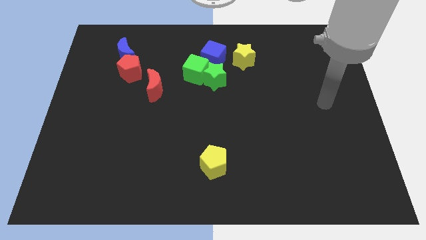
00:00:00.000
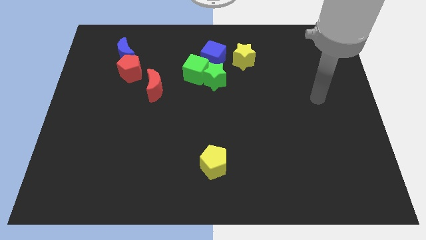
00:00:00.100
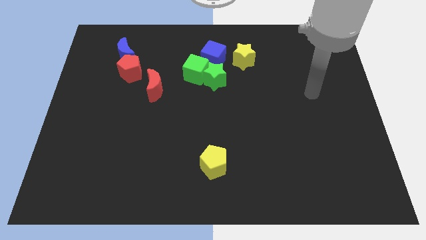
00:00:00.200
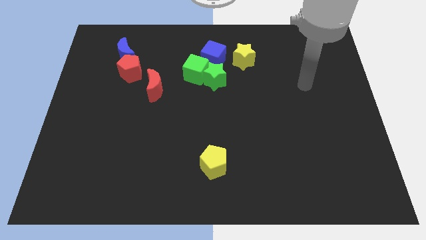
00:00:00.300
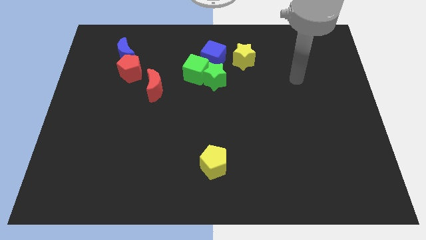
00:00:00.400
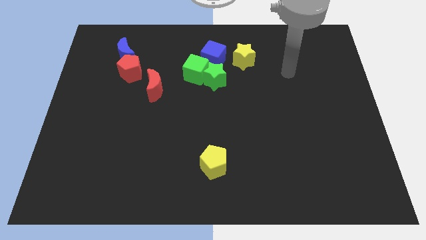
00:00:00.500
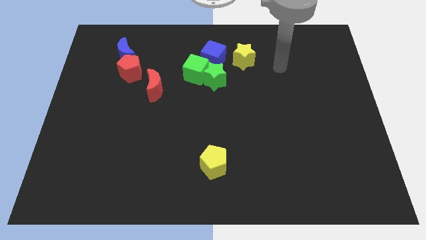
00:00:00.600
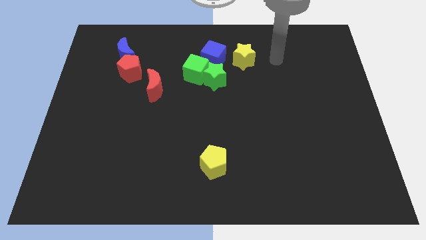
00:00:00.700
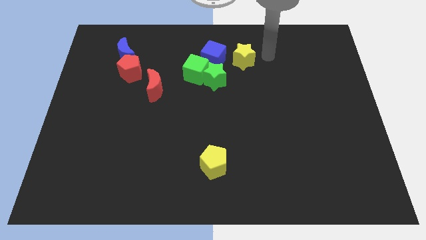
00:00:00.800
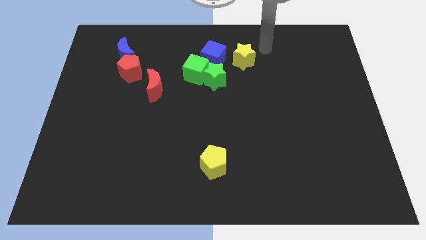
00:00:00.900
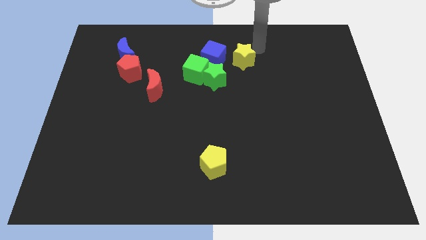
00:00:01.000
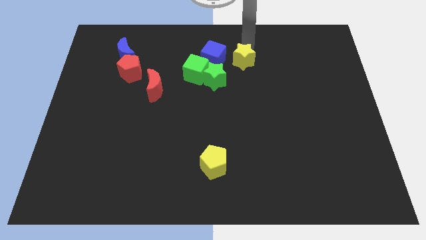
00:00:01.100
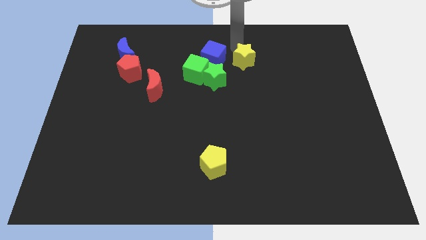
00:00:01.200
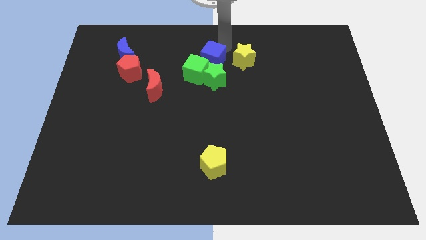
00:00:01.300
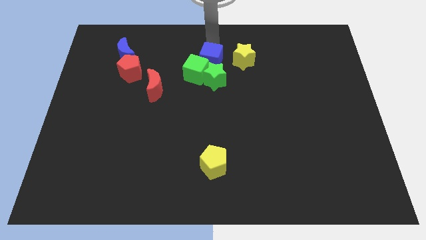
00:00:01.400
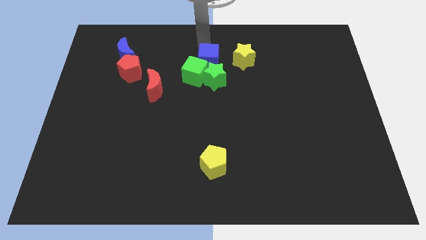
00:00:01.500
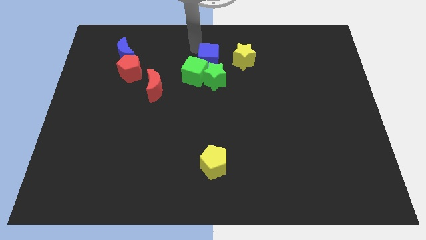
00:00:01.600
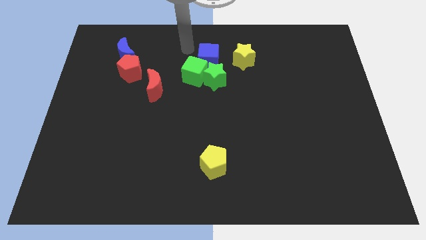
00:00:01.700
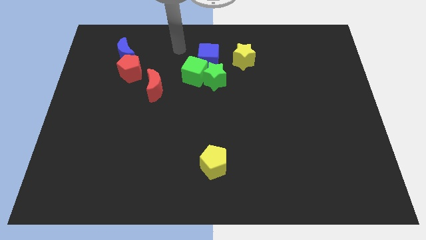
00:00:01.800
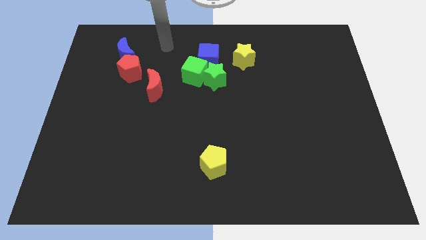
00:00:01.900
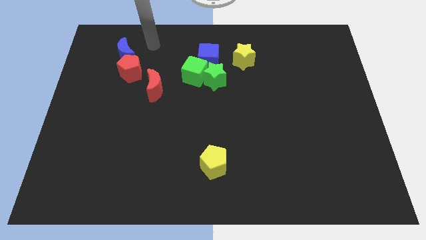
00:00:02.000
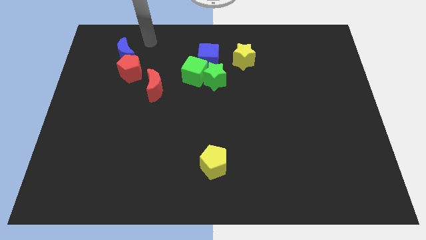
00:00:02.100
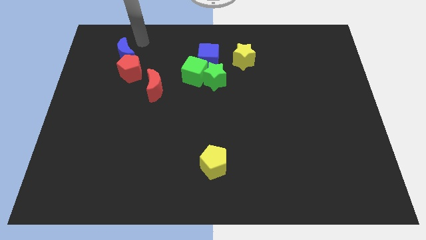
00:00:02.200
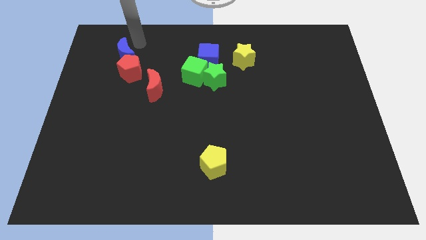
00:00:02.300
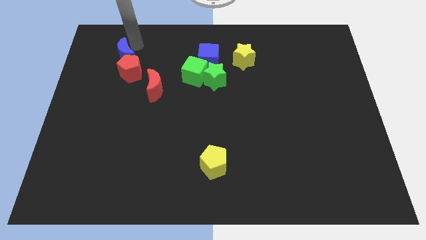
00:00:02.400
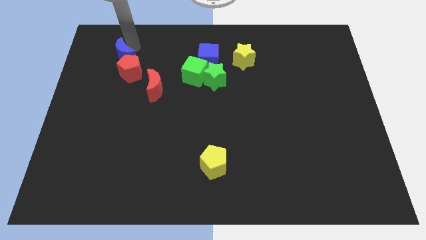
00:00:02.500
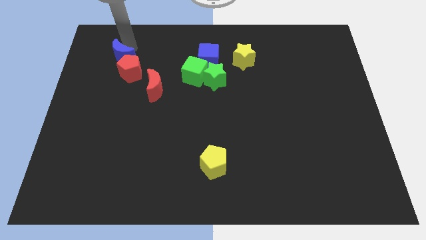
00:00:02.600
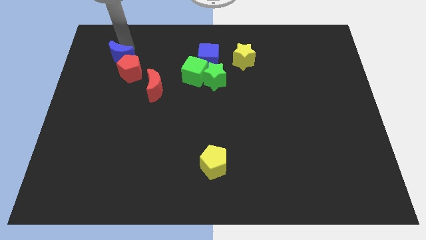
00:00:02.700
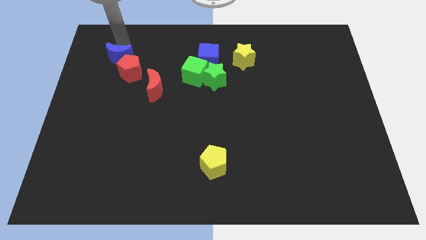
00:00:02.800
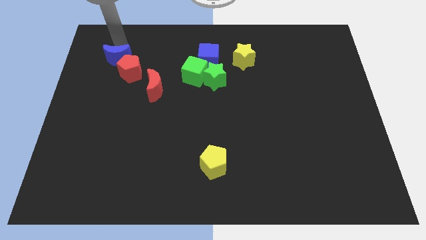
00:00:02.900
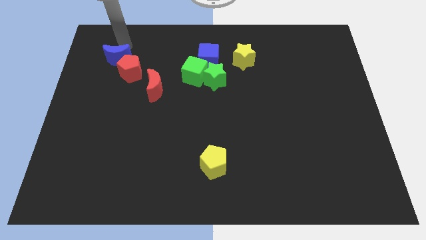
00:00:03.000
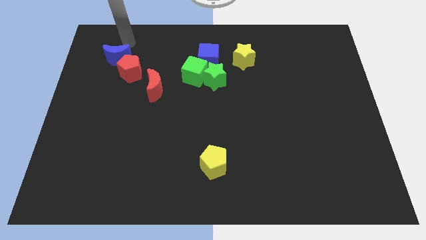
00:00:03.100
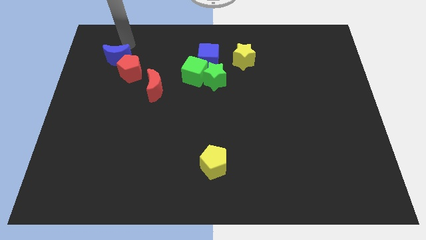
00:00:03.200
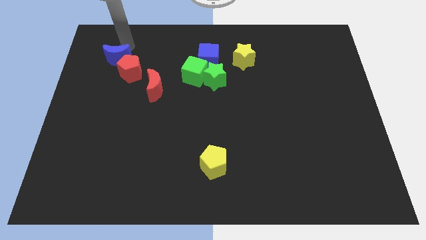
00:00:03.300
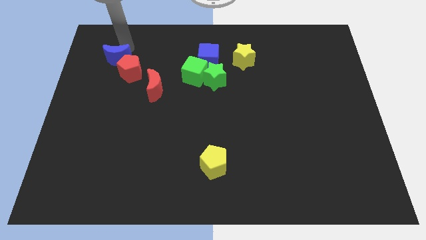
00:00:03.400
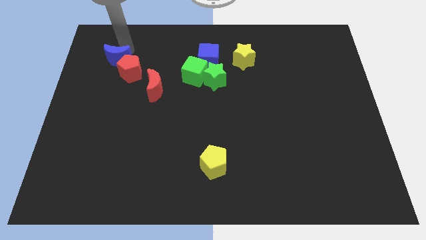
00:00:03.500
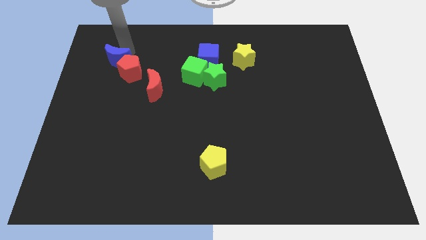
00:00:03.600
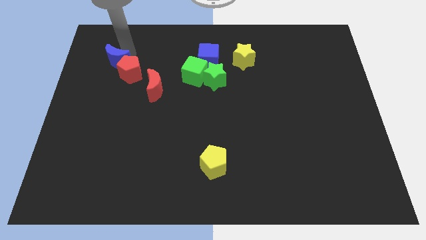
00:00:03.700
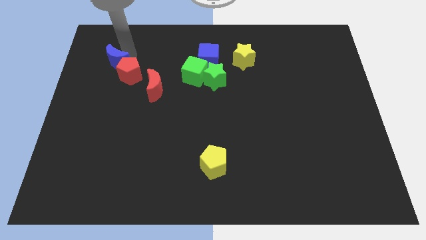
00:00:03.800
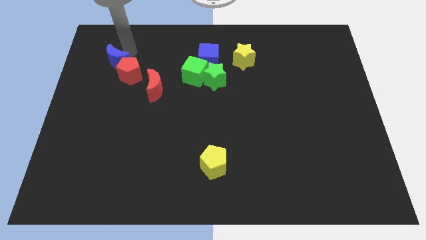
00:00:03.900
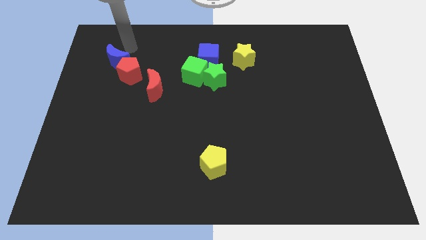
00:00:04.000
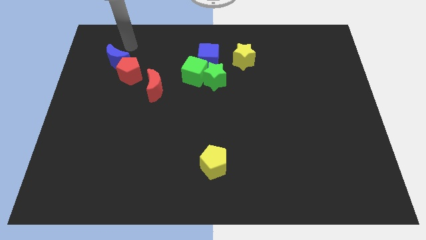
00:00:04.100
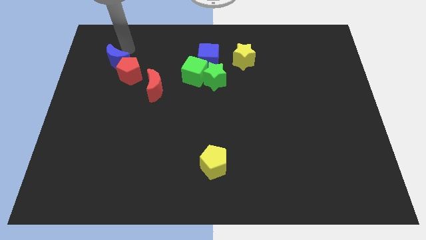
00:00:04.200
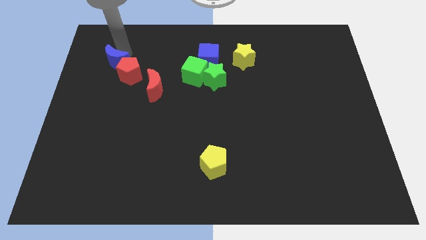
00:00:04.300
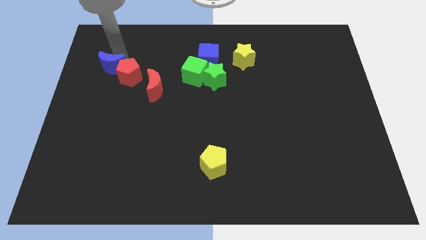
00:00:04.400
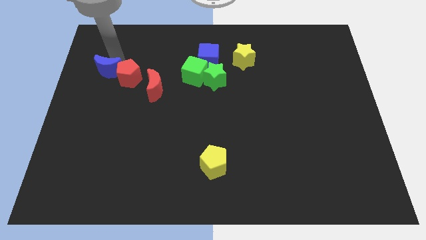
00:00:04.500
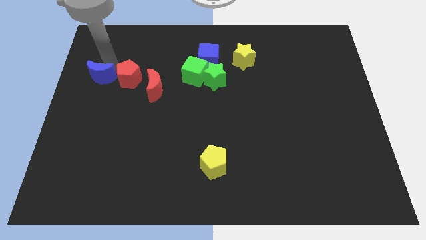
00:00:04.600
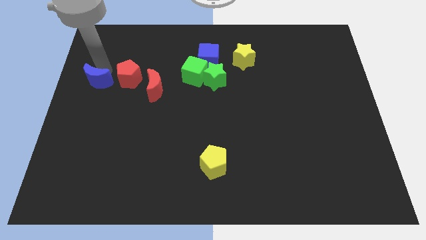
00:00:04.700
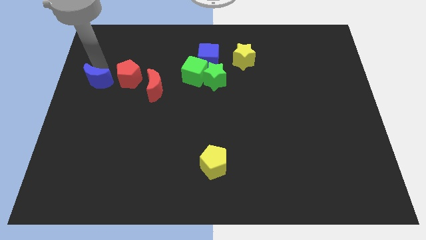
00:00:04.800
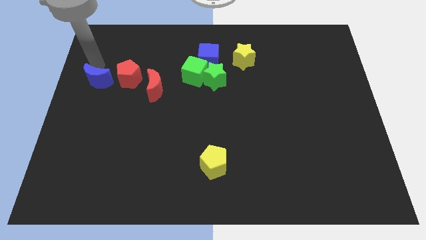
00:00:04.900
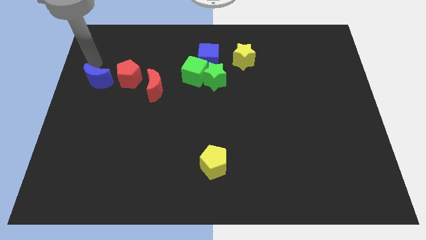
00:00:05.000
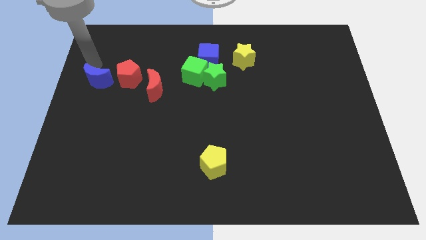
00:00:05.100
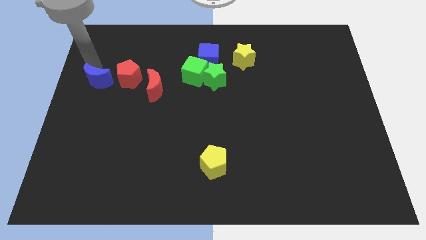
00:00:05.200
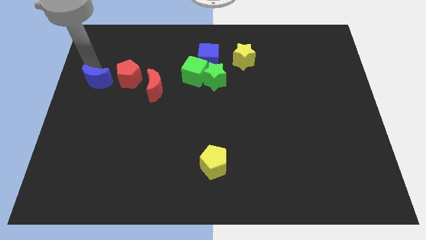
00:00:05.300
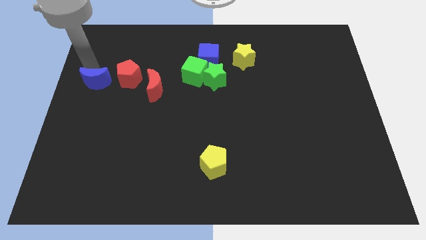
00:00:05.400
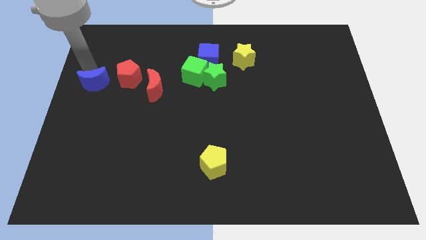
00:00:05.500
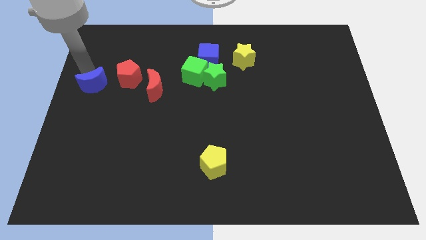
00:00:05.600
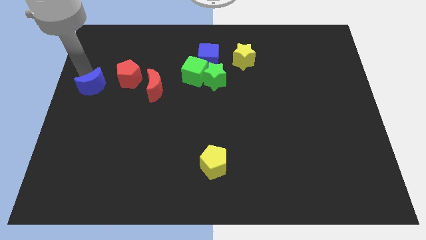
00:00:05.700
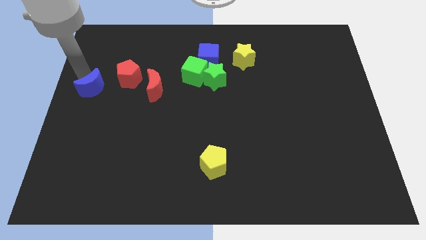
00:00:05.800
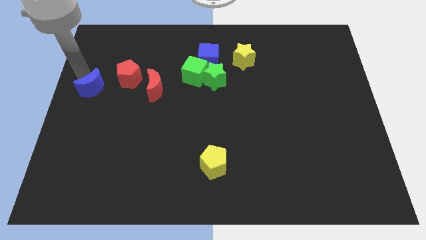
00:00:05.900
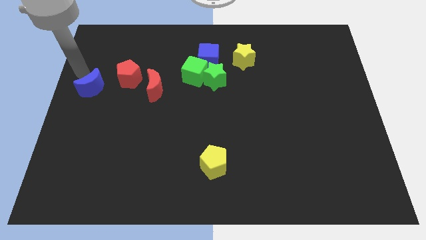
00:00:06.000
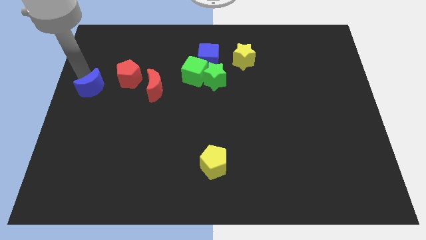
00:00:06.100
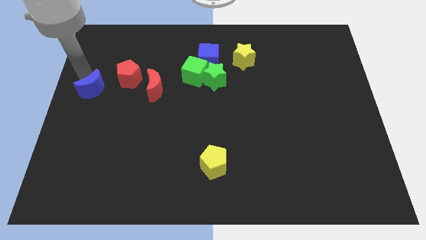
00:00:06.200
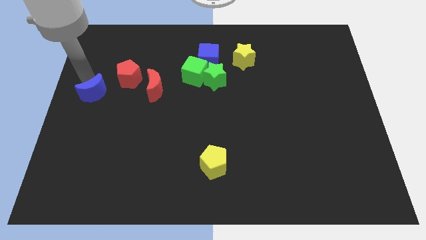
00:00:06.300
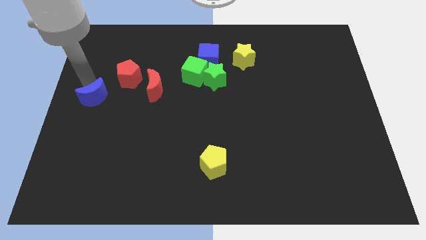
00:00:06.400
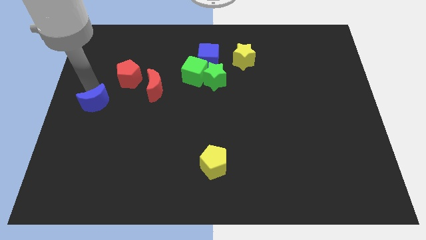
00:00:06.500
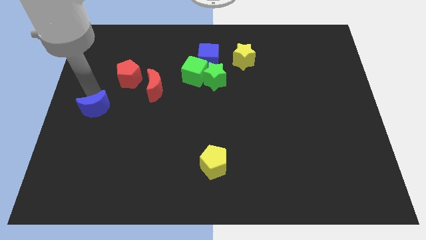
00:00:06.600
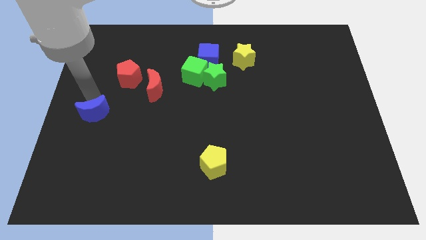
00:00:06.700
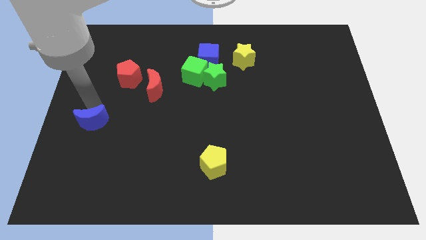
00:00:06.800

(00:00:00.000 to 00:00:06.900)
slide the blue moon down

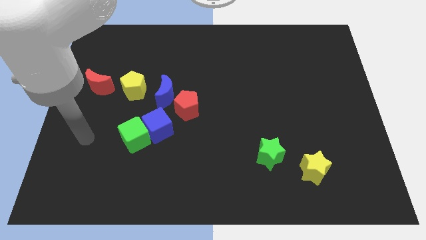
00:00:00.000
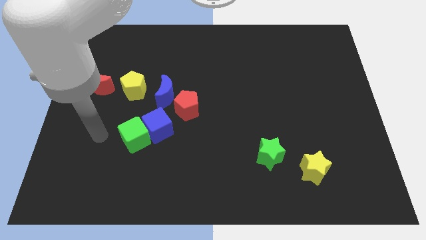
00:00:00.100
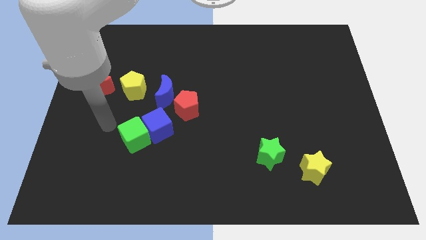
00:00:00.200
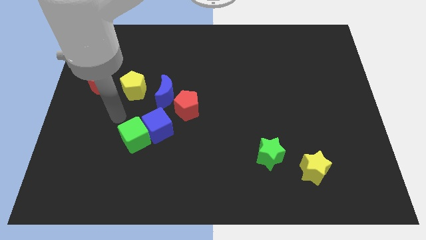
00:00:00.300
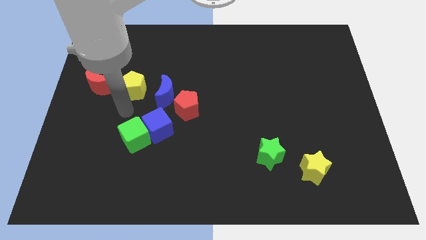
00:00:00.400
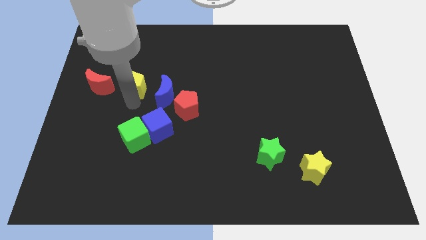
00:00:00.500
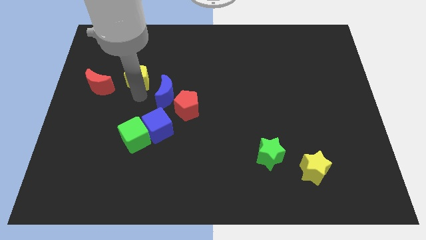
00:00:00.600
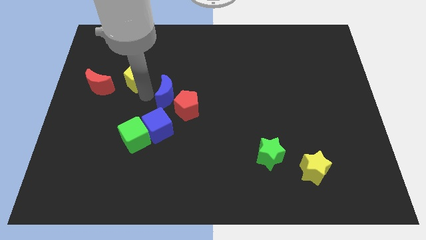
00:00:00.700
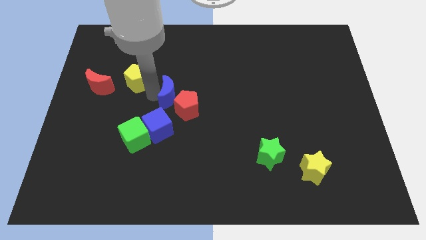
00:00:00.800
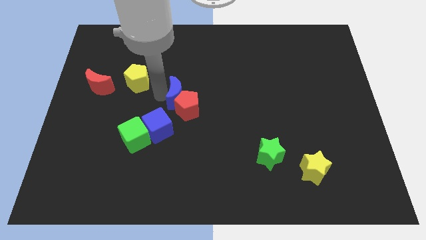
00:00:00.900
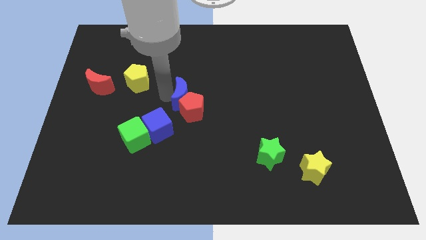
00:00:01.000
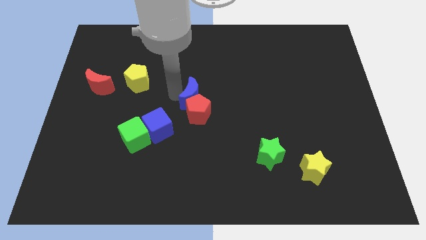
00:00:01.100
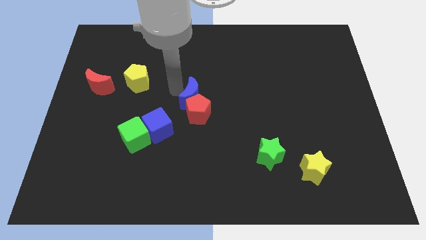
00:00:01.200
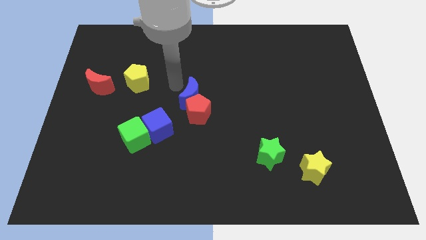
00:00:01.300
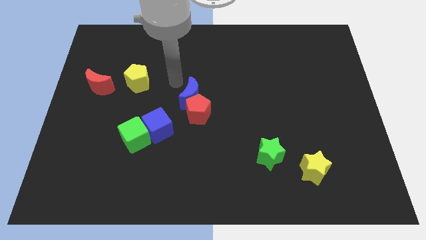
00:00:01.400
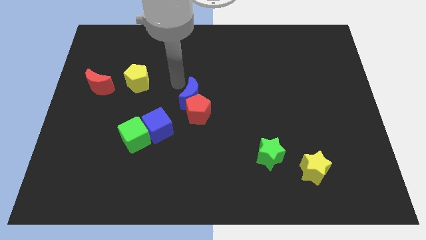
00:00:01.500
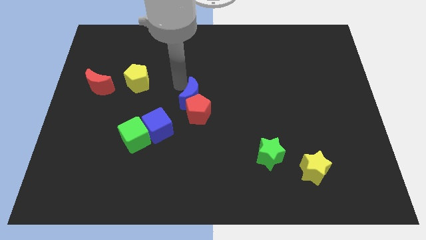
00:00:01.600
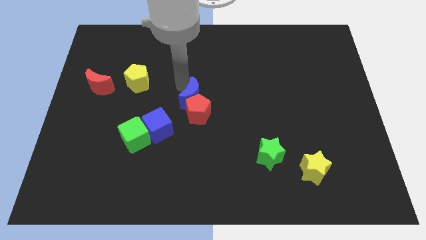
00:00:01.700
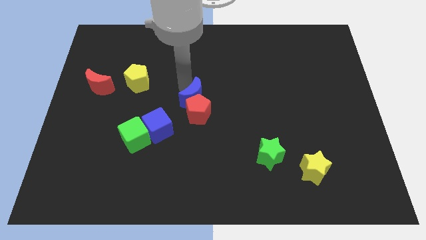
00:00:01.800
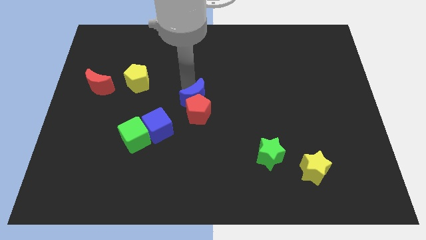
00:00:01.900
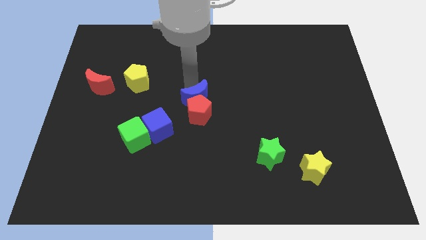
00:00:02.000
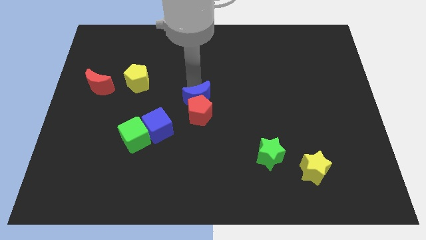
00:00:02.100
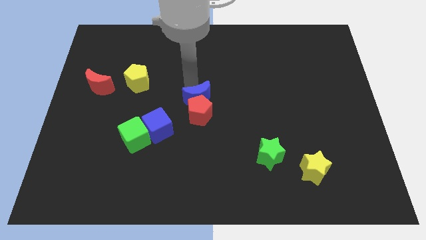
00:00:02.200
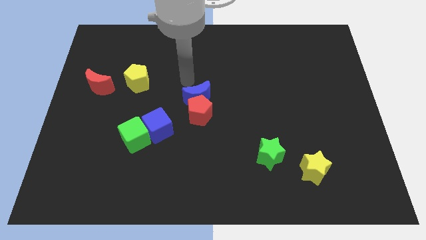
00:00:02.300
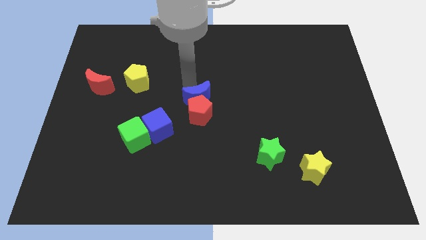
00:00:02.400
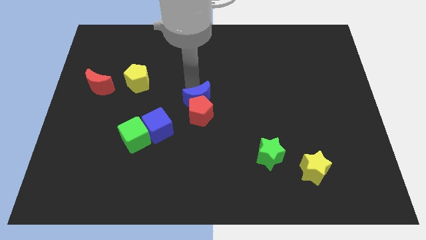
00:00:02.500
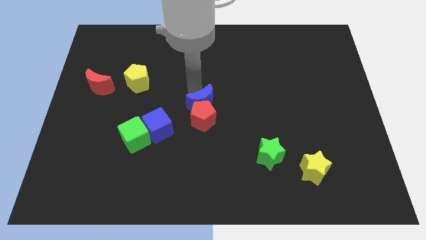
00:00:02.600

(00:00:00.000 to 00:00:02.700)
slide the blue moon a bit diagonally downwards and right
